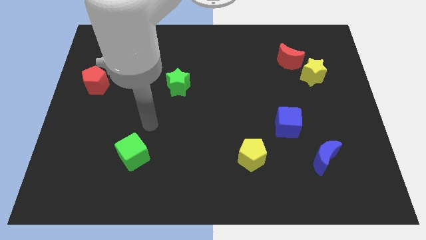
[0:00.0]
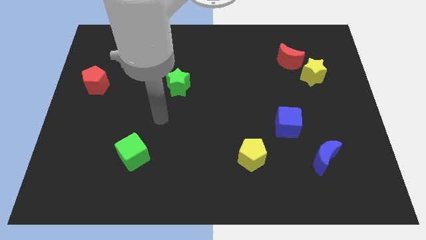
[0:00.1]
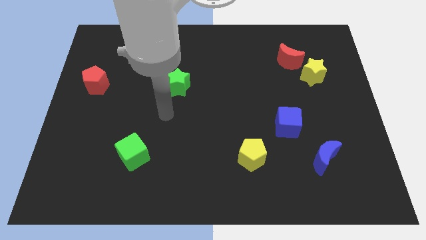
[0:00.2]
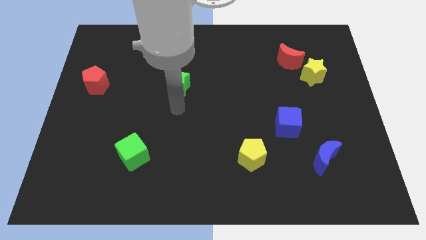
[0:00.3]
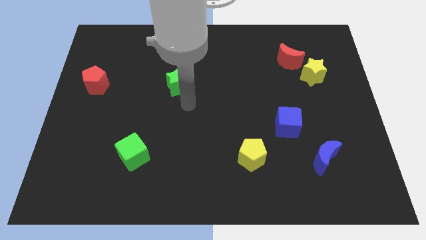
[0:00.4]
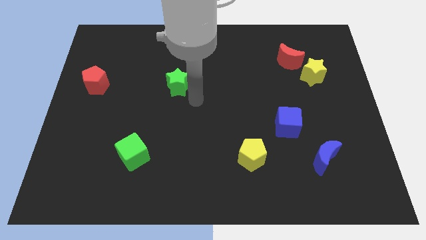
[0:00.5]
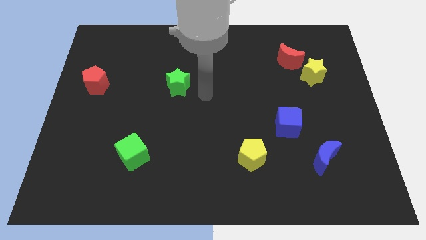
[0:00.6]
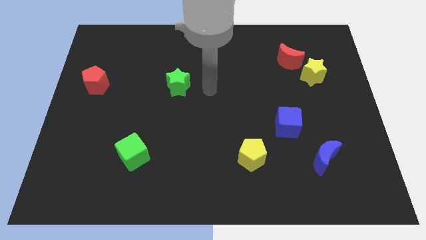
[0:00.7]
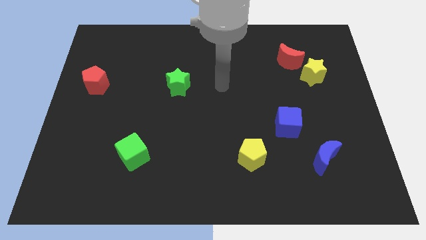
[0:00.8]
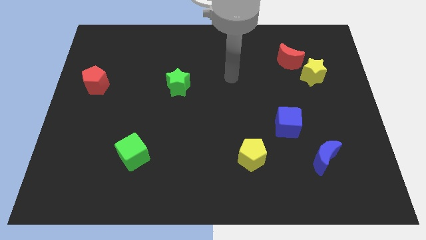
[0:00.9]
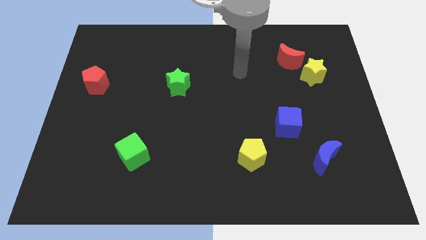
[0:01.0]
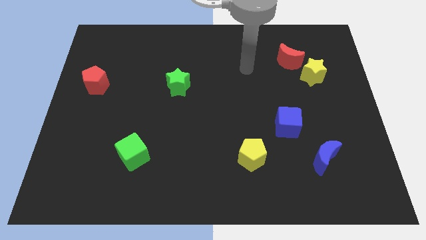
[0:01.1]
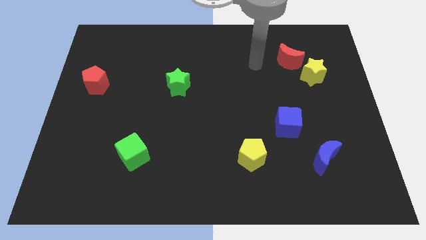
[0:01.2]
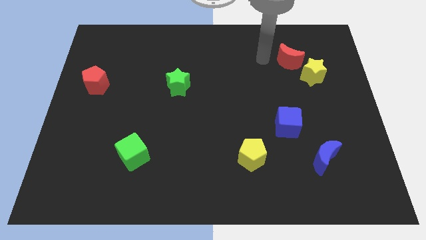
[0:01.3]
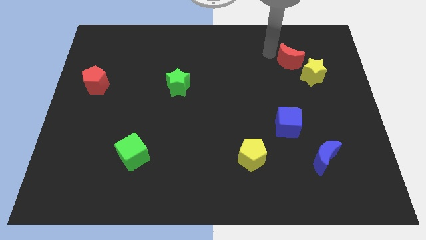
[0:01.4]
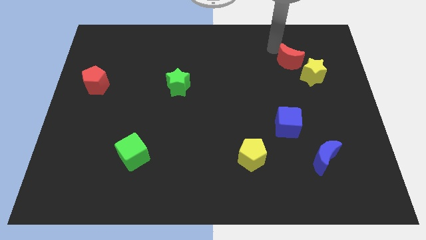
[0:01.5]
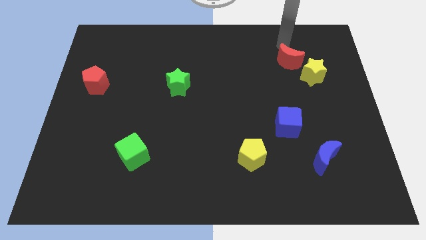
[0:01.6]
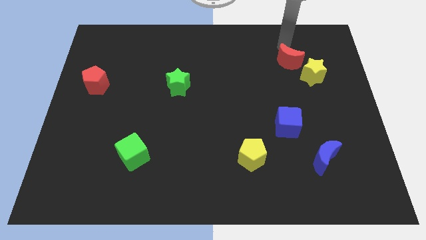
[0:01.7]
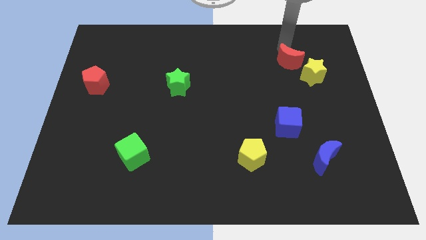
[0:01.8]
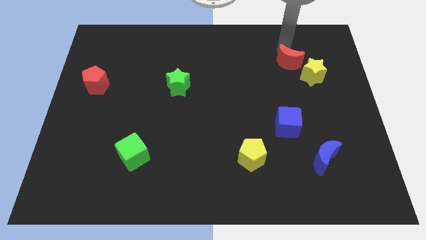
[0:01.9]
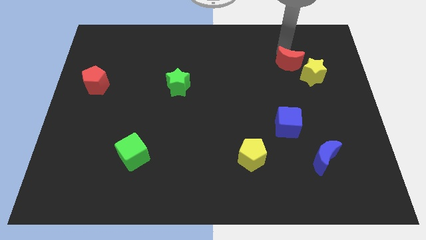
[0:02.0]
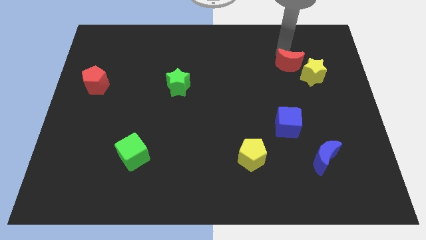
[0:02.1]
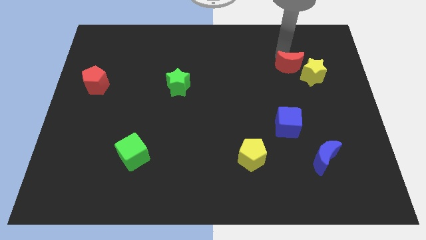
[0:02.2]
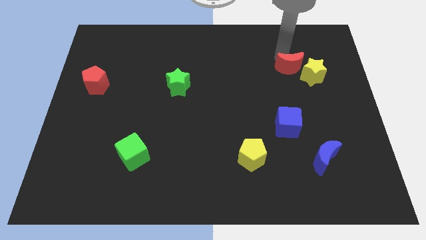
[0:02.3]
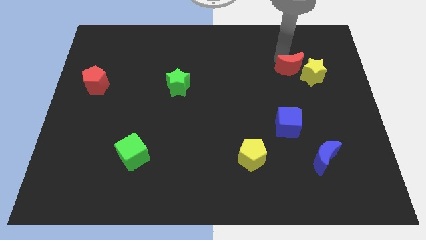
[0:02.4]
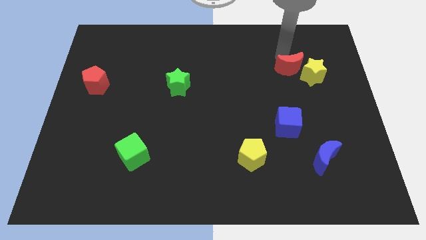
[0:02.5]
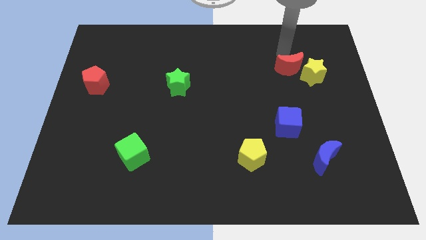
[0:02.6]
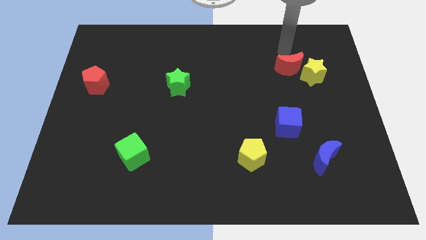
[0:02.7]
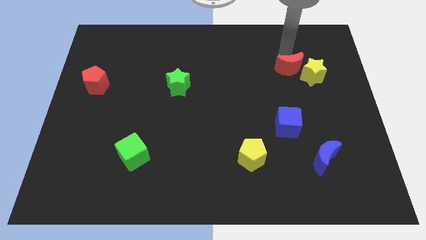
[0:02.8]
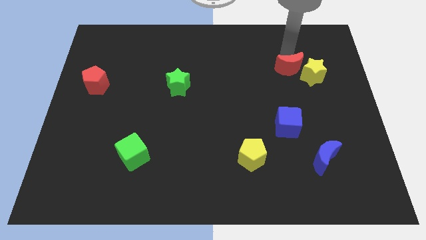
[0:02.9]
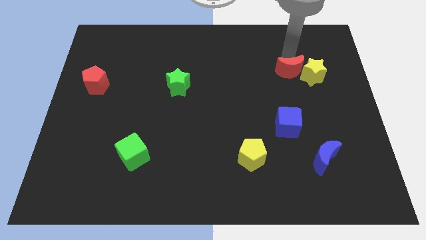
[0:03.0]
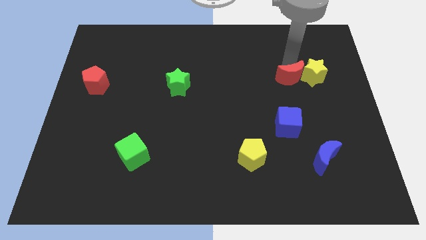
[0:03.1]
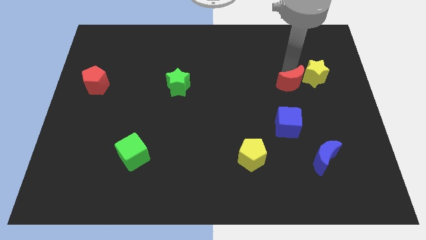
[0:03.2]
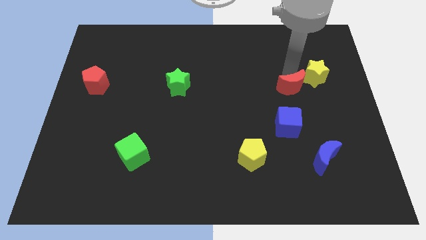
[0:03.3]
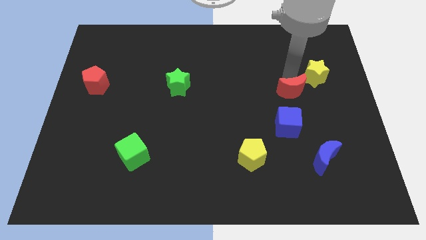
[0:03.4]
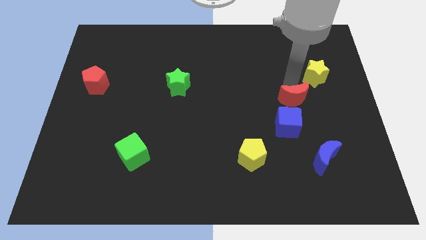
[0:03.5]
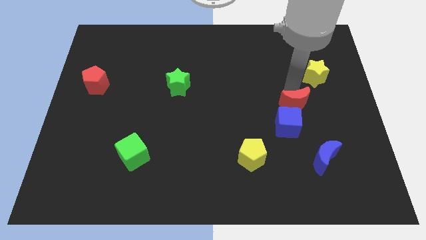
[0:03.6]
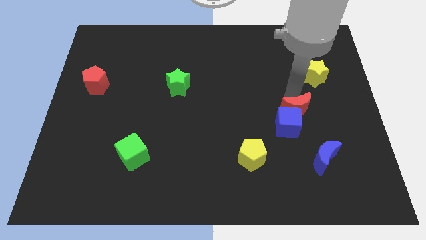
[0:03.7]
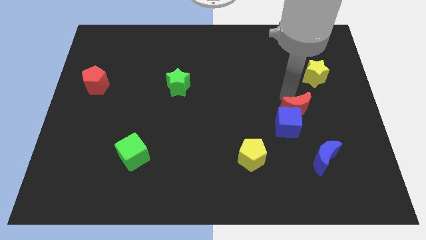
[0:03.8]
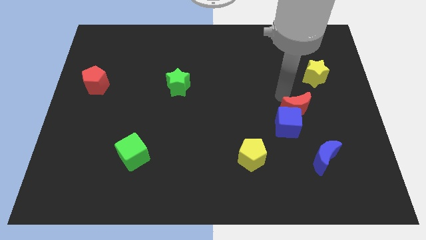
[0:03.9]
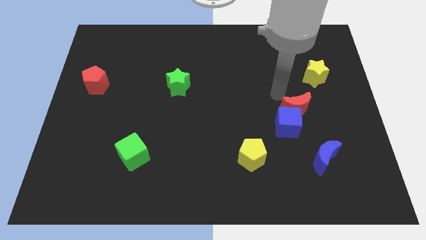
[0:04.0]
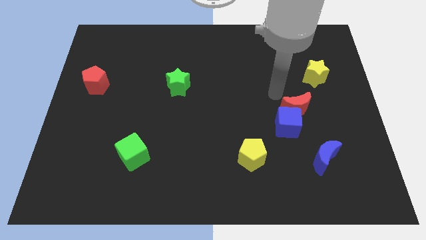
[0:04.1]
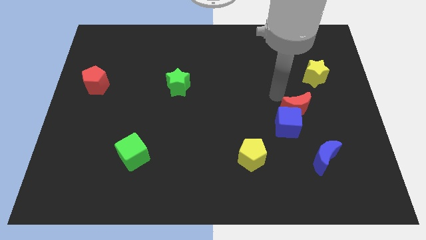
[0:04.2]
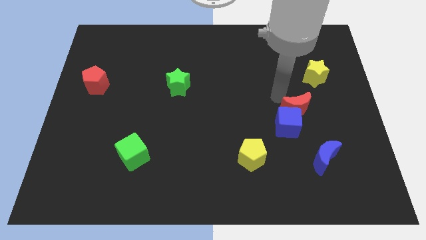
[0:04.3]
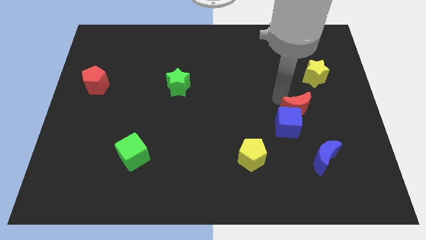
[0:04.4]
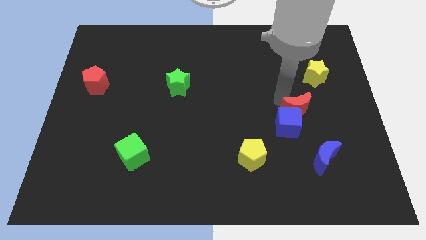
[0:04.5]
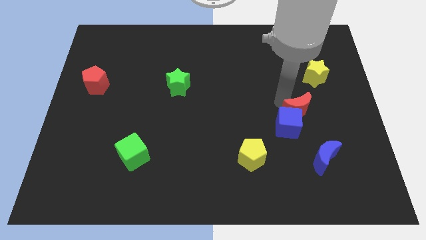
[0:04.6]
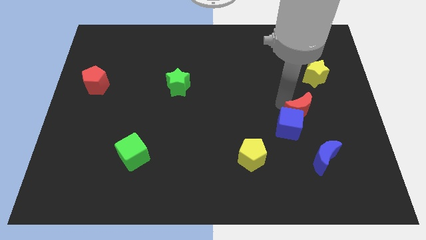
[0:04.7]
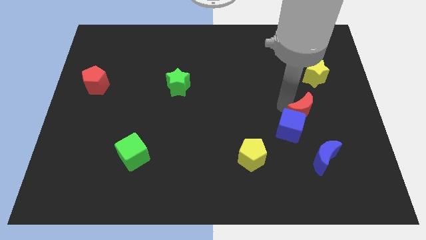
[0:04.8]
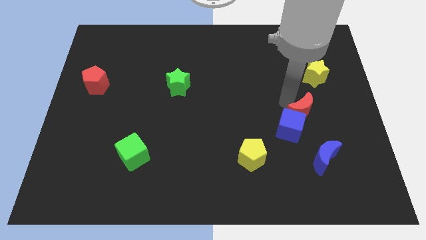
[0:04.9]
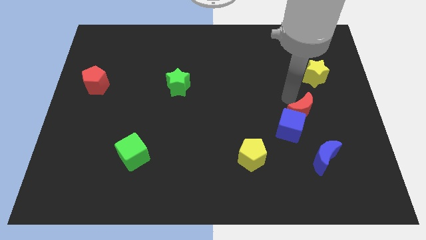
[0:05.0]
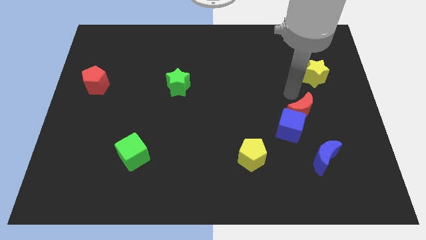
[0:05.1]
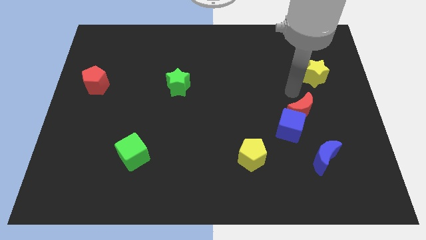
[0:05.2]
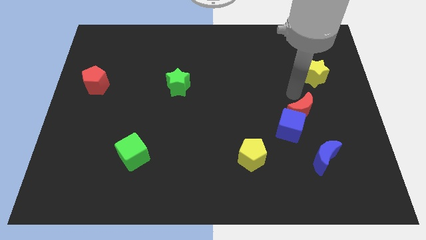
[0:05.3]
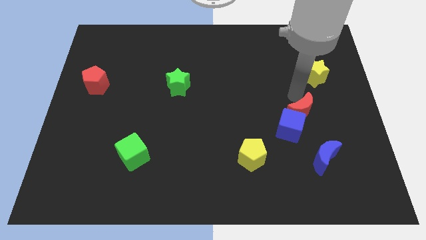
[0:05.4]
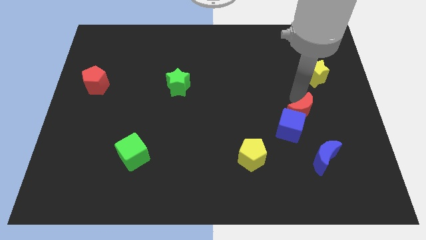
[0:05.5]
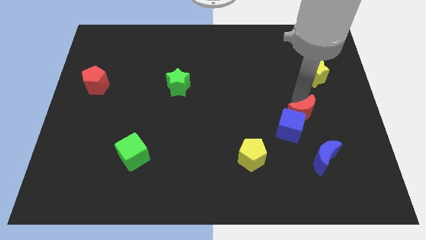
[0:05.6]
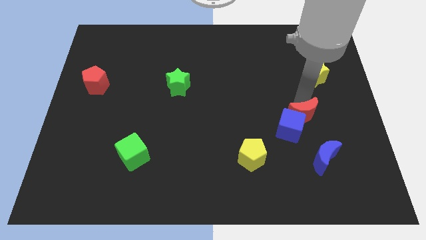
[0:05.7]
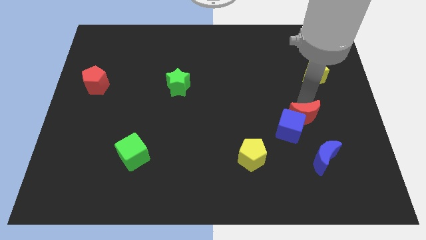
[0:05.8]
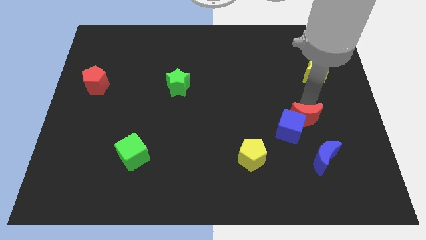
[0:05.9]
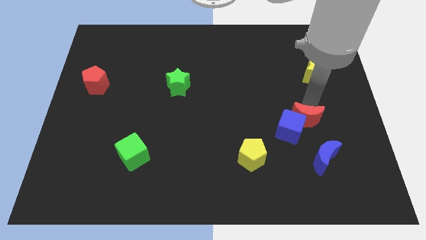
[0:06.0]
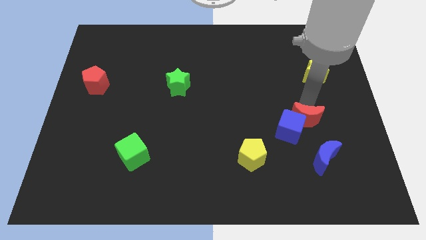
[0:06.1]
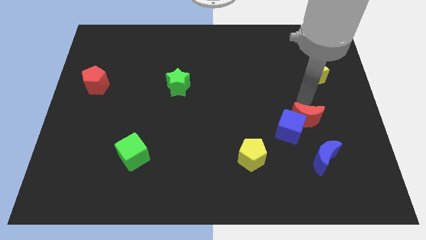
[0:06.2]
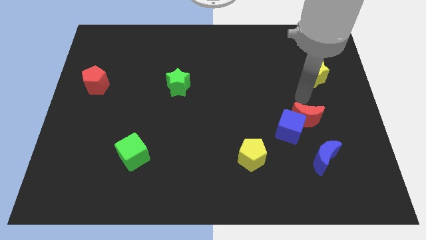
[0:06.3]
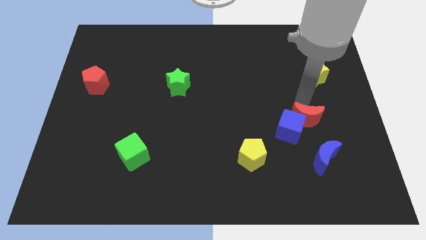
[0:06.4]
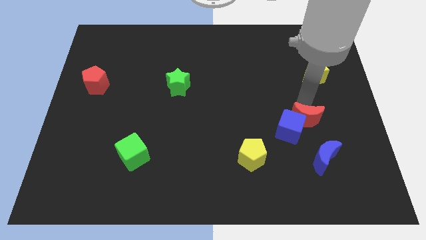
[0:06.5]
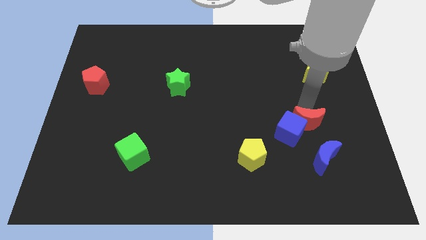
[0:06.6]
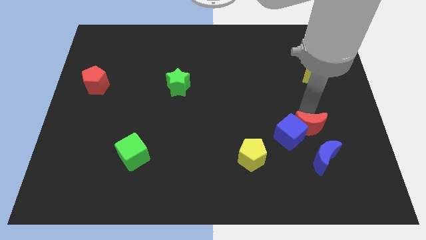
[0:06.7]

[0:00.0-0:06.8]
push the red moon down

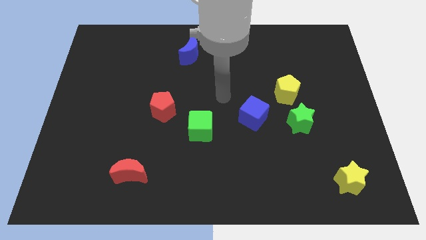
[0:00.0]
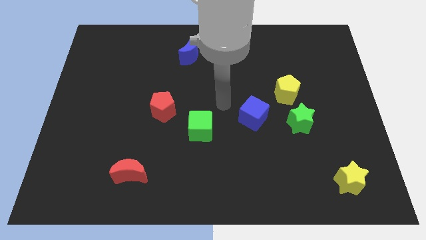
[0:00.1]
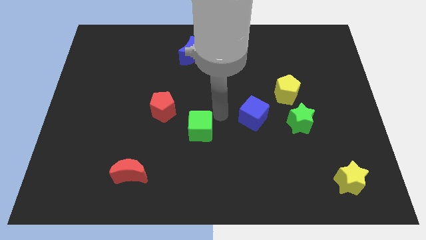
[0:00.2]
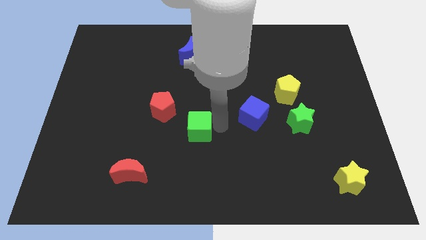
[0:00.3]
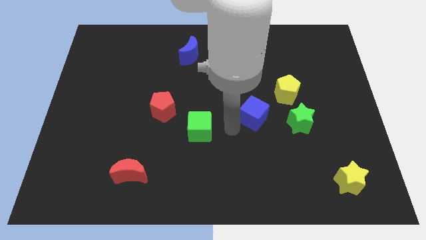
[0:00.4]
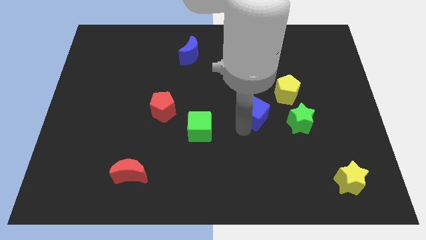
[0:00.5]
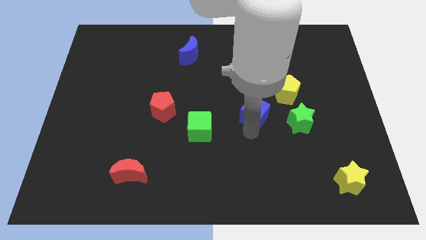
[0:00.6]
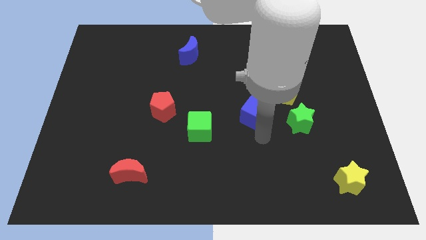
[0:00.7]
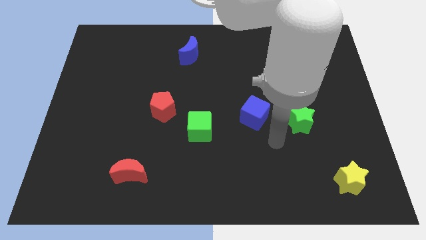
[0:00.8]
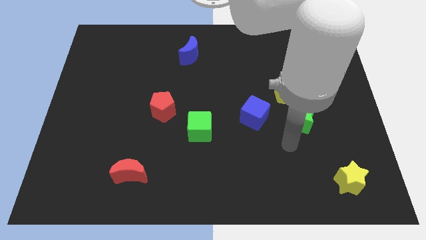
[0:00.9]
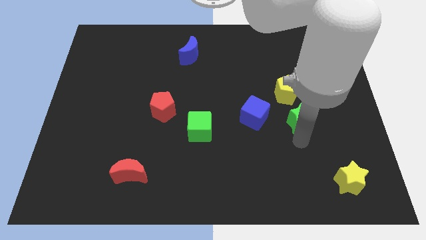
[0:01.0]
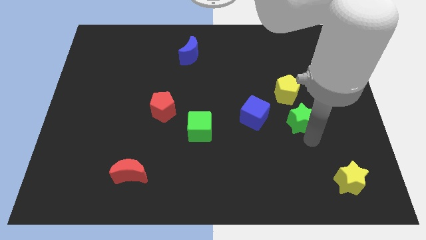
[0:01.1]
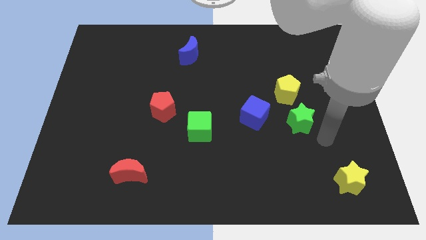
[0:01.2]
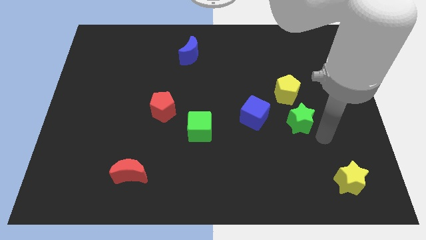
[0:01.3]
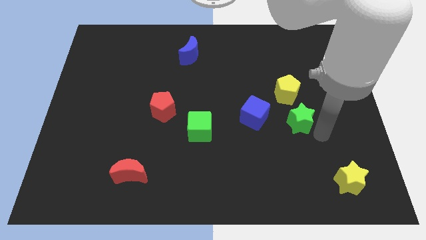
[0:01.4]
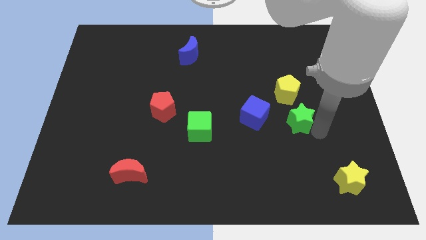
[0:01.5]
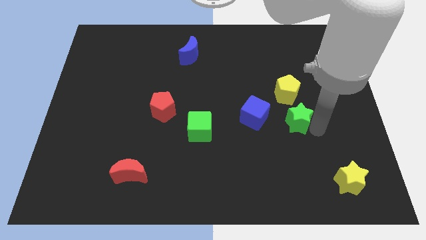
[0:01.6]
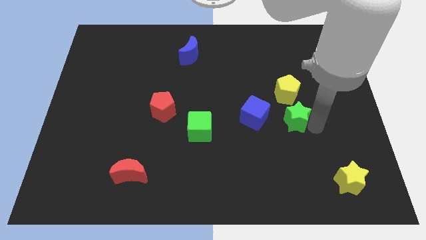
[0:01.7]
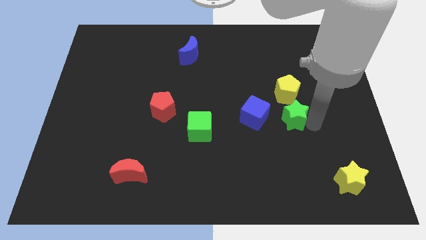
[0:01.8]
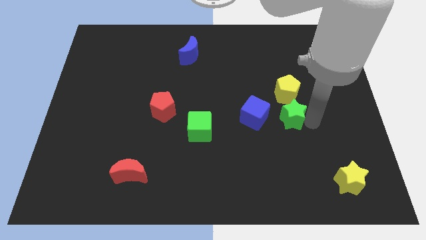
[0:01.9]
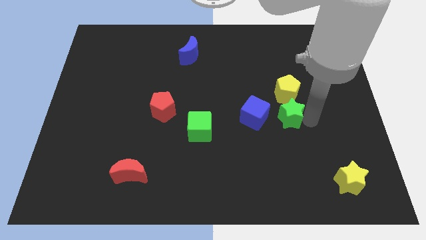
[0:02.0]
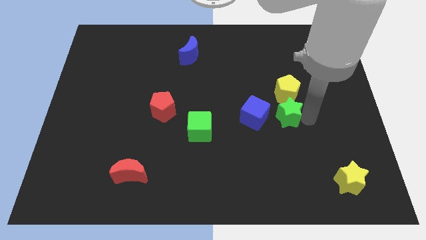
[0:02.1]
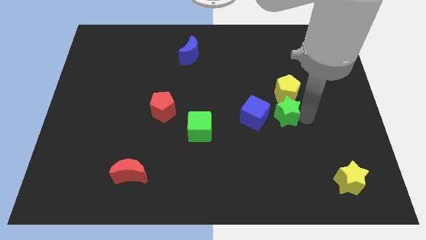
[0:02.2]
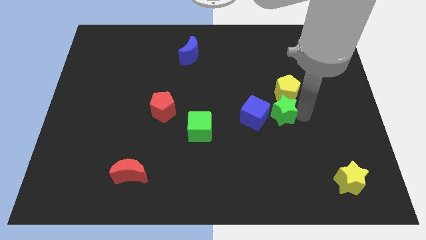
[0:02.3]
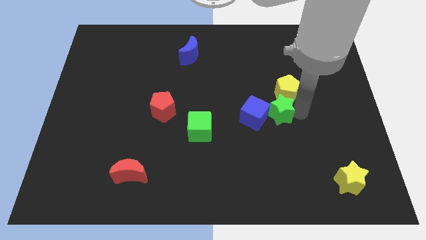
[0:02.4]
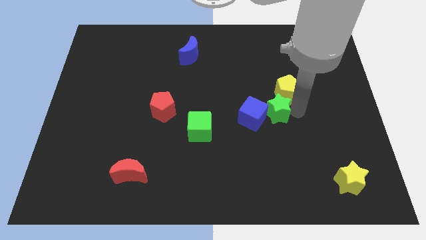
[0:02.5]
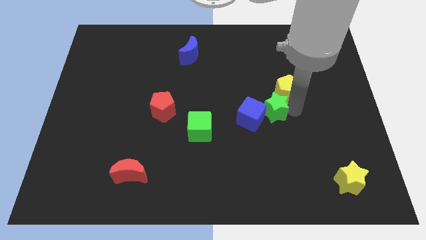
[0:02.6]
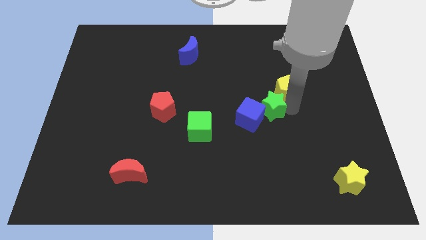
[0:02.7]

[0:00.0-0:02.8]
slide the green star upwards and left a bit
